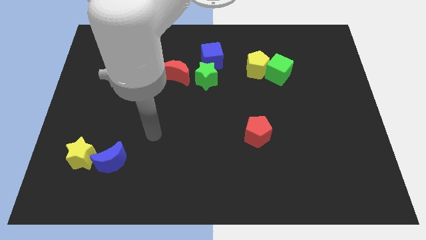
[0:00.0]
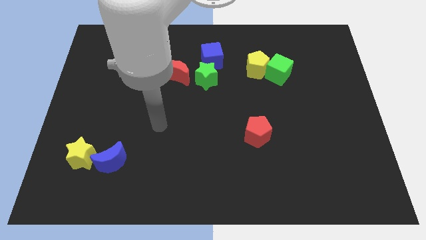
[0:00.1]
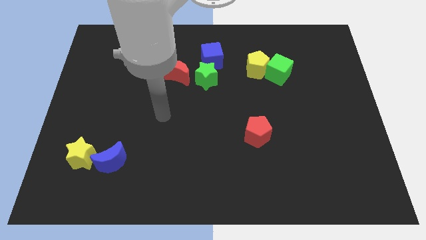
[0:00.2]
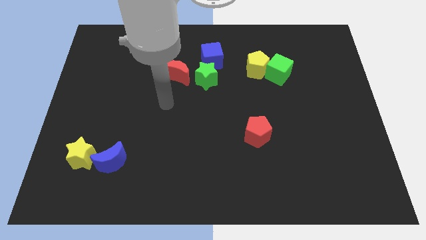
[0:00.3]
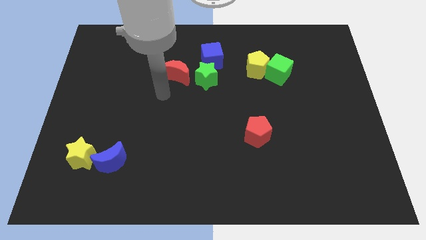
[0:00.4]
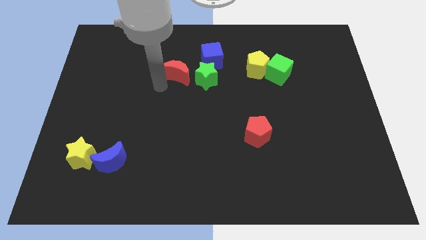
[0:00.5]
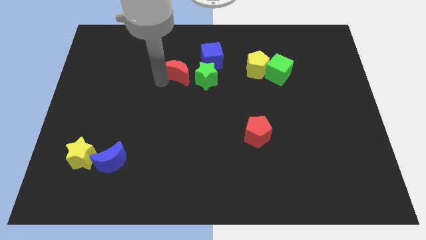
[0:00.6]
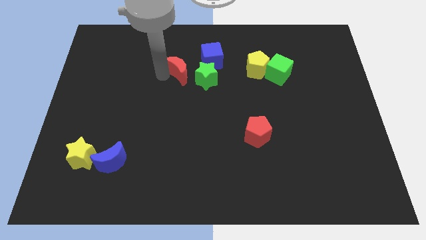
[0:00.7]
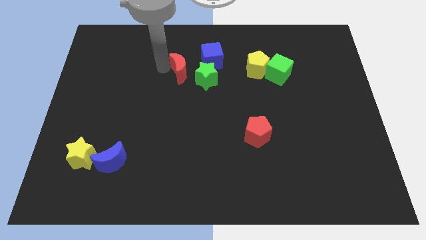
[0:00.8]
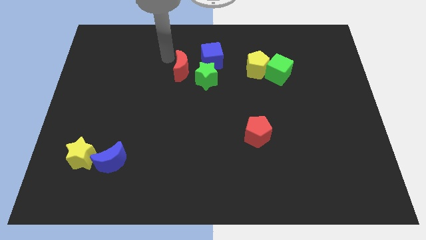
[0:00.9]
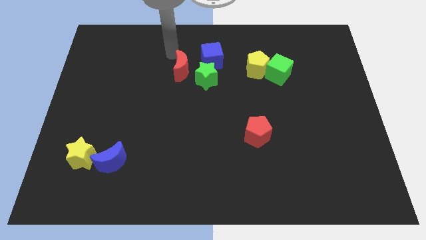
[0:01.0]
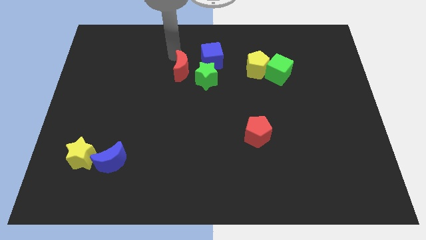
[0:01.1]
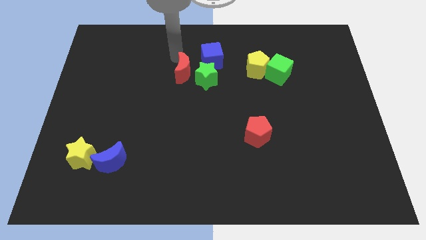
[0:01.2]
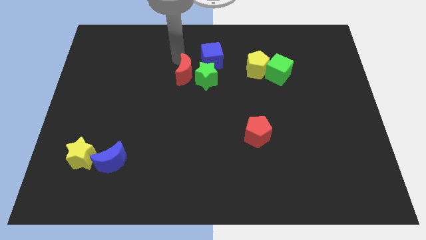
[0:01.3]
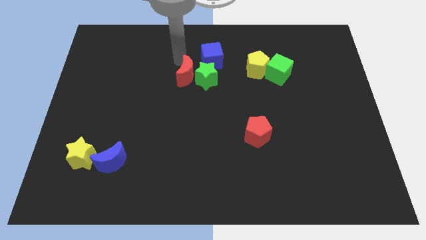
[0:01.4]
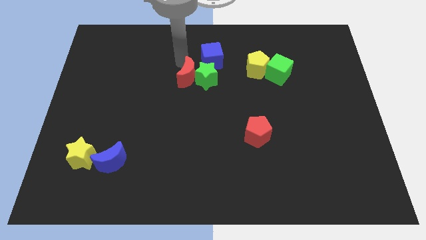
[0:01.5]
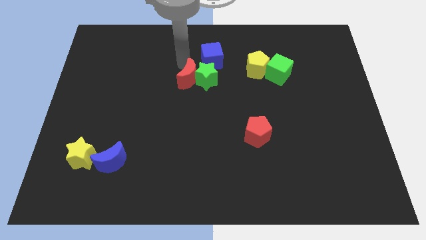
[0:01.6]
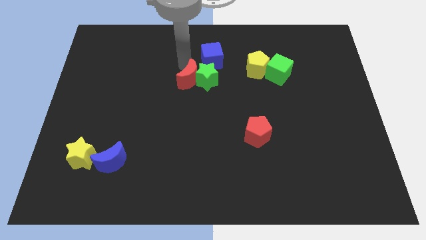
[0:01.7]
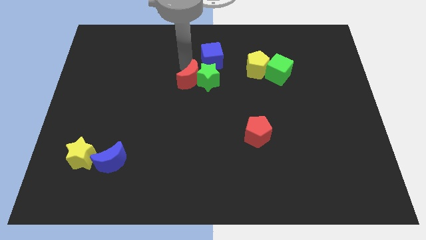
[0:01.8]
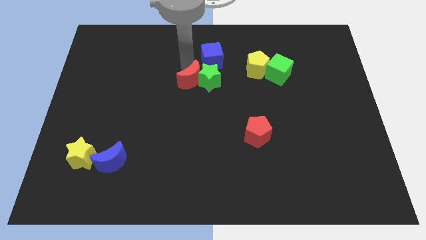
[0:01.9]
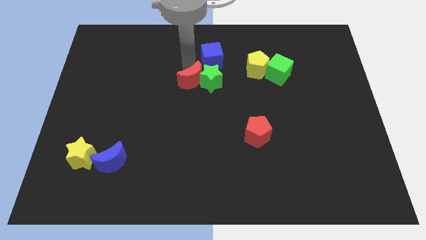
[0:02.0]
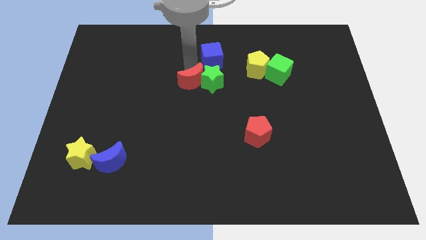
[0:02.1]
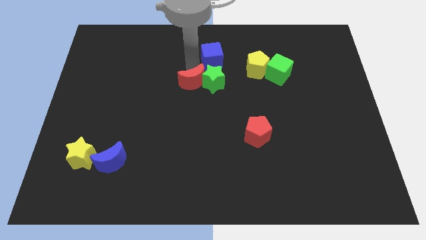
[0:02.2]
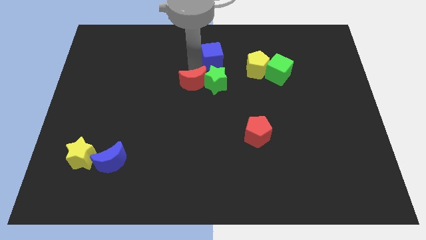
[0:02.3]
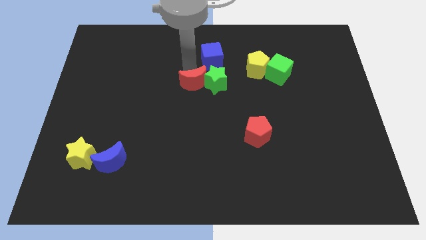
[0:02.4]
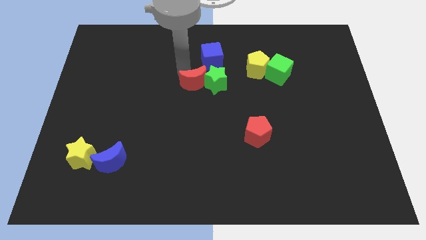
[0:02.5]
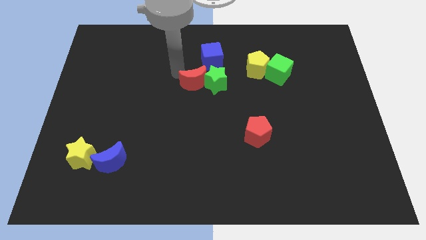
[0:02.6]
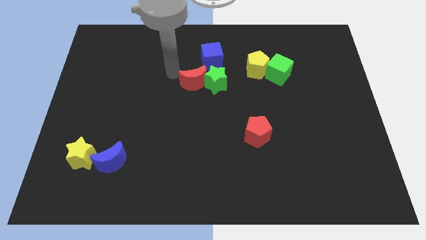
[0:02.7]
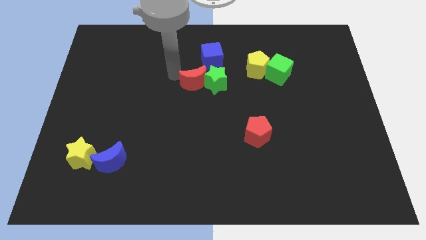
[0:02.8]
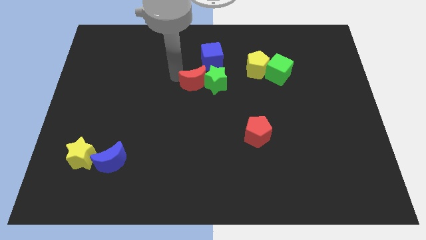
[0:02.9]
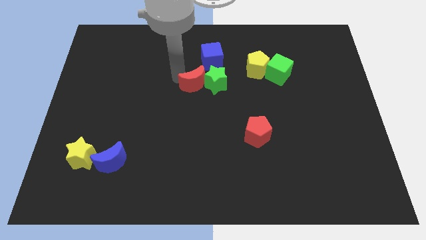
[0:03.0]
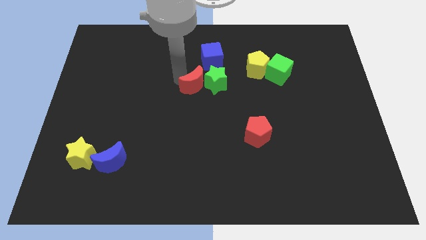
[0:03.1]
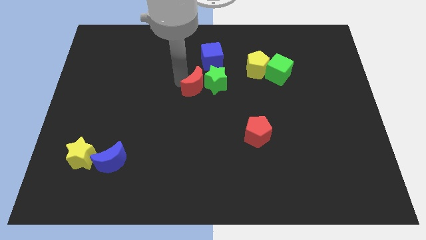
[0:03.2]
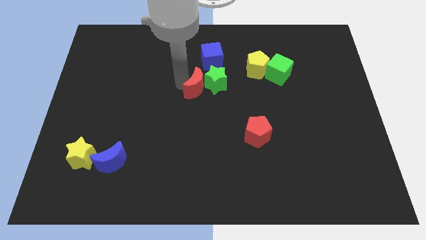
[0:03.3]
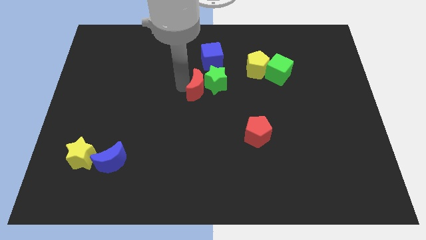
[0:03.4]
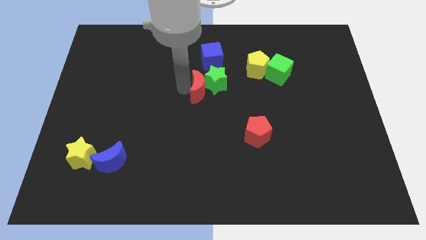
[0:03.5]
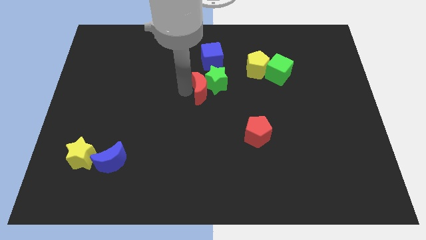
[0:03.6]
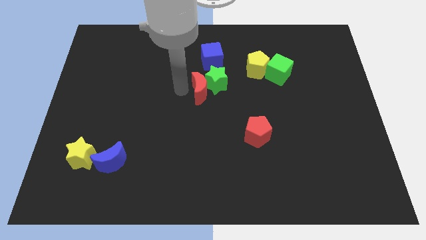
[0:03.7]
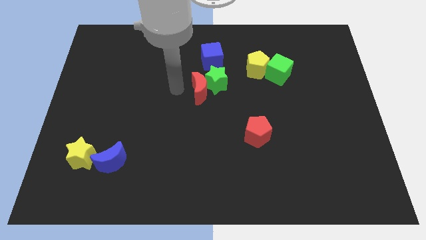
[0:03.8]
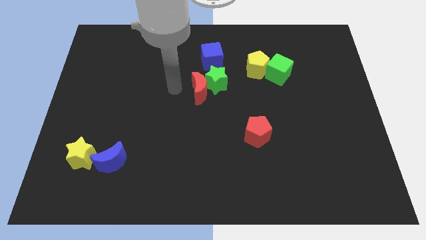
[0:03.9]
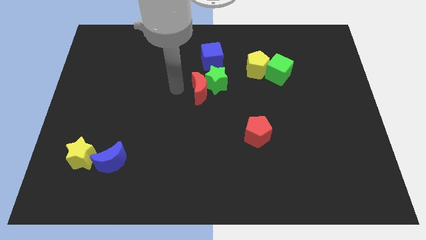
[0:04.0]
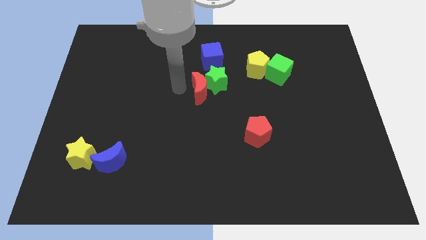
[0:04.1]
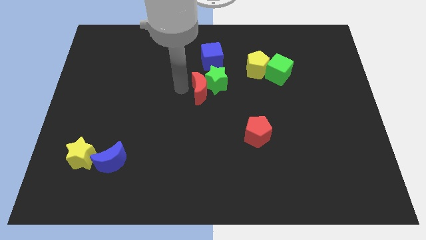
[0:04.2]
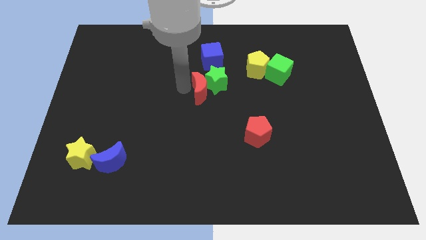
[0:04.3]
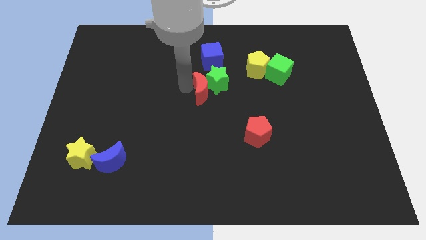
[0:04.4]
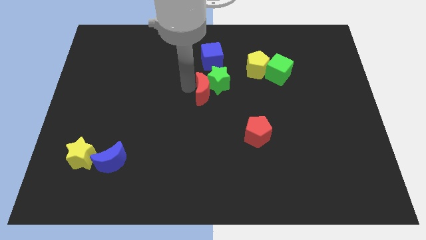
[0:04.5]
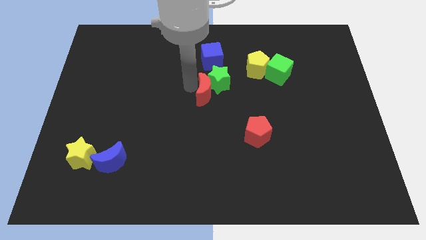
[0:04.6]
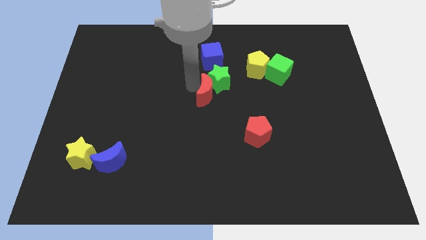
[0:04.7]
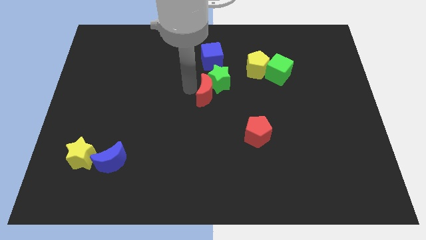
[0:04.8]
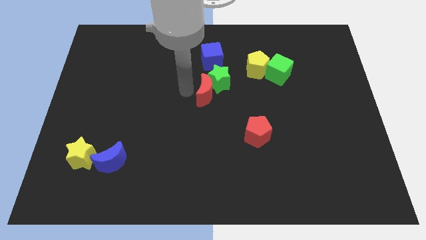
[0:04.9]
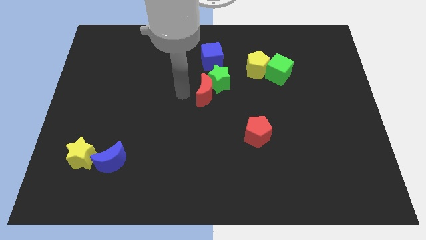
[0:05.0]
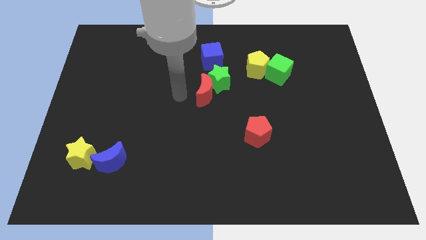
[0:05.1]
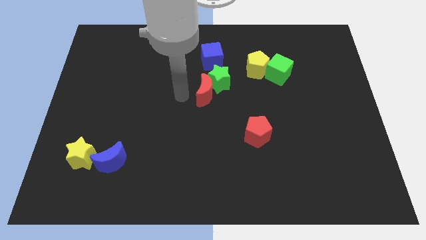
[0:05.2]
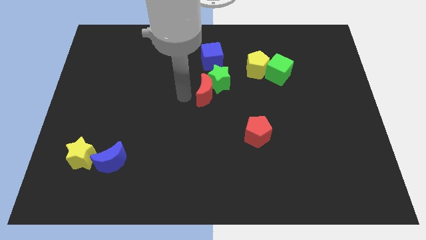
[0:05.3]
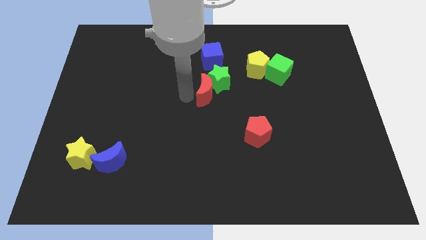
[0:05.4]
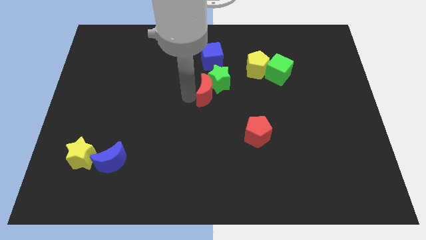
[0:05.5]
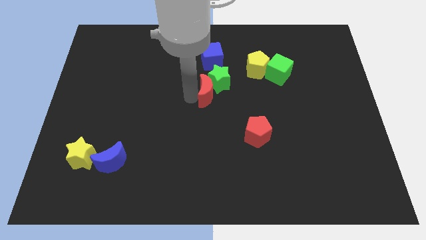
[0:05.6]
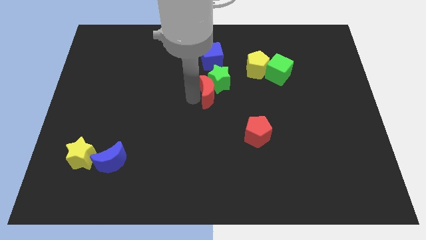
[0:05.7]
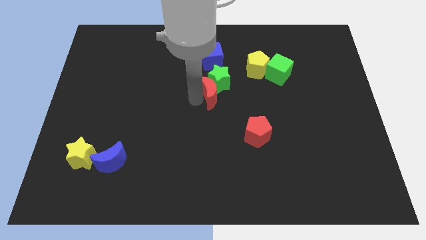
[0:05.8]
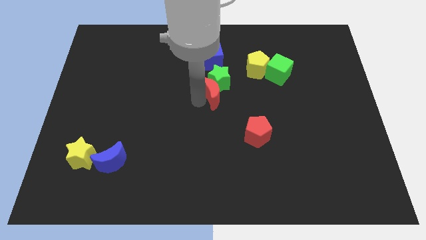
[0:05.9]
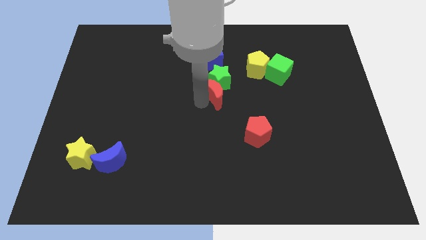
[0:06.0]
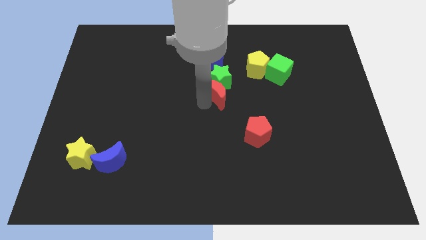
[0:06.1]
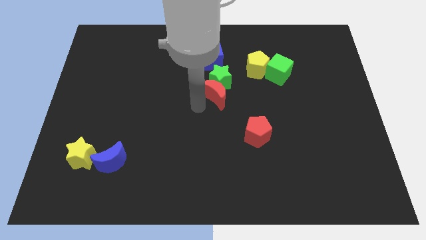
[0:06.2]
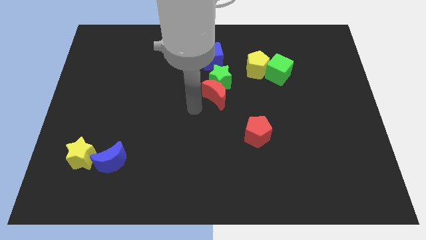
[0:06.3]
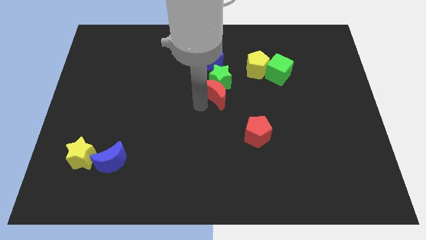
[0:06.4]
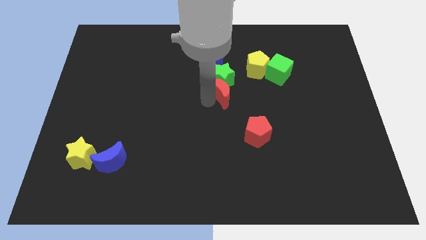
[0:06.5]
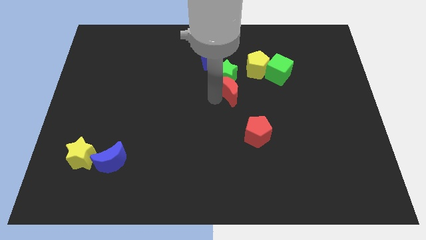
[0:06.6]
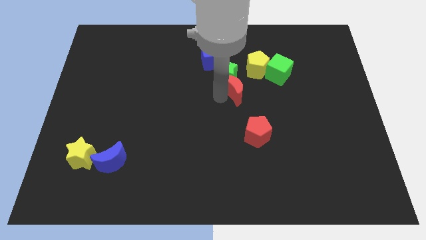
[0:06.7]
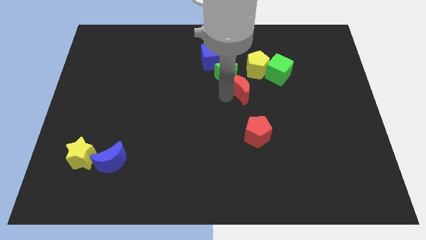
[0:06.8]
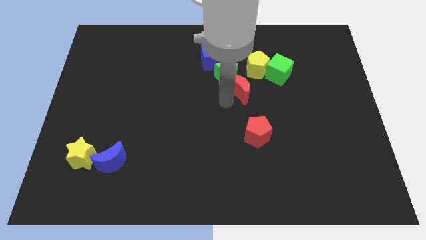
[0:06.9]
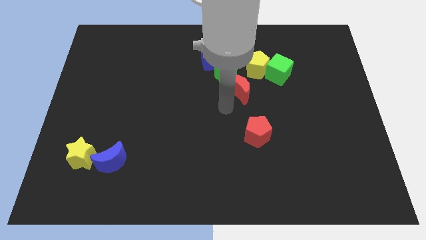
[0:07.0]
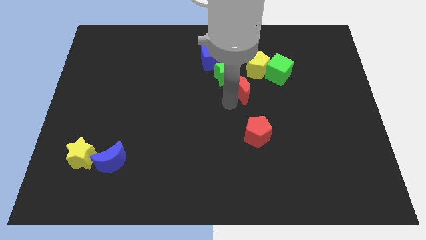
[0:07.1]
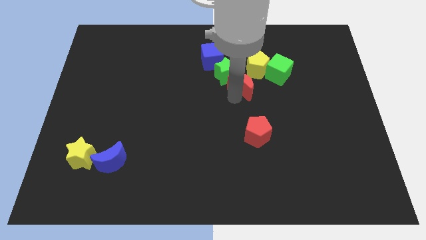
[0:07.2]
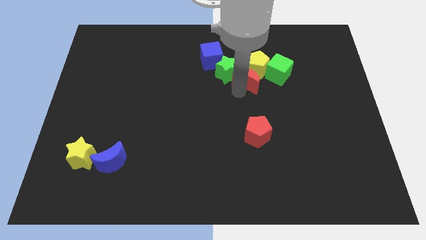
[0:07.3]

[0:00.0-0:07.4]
slide the red moon close to the yellow pentagon

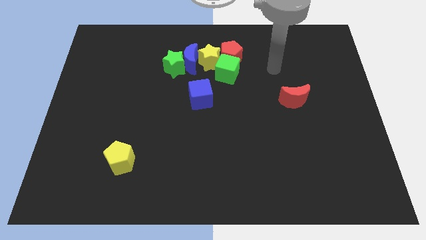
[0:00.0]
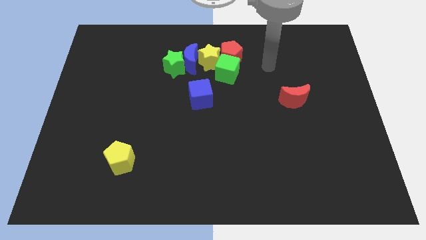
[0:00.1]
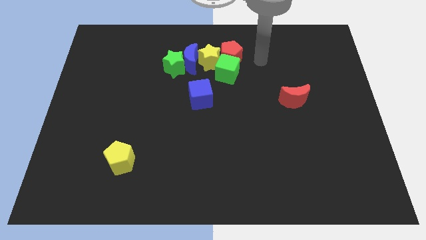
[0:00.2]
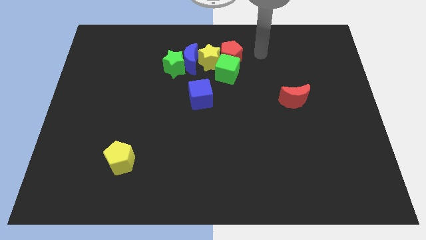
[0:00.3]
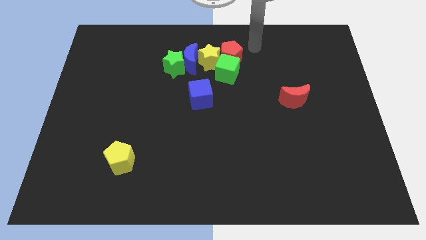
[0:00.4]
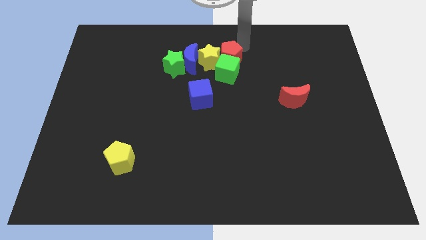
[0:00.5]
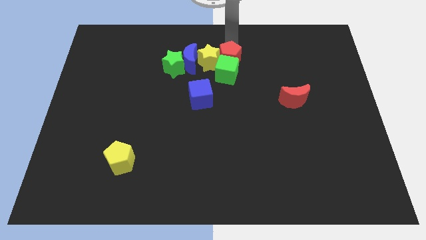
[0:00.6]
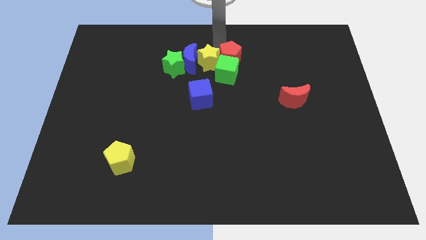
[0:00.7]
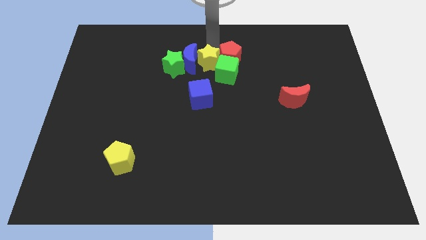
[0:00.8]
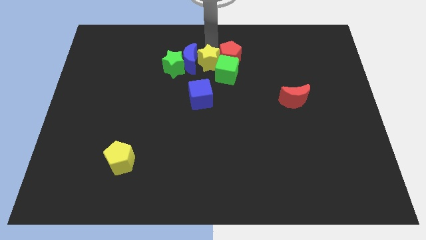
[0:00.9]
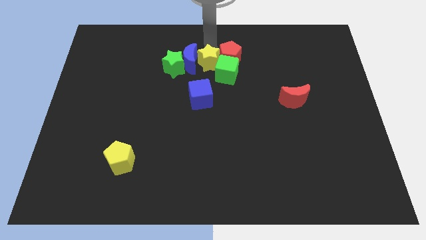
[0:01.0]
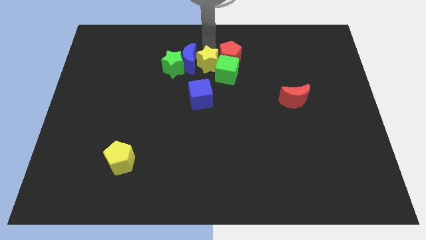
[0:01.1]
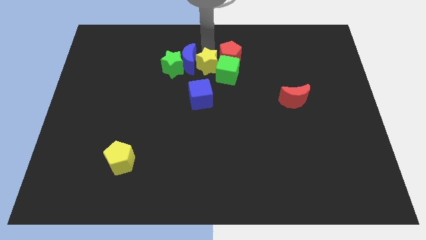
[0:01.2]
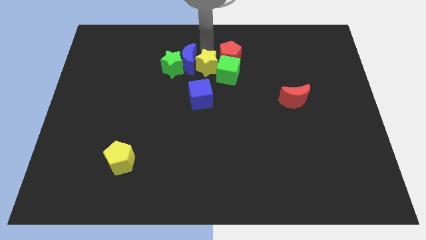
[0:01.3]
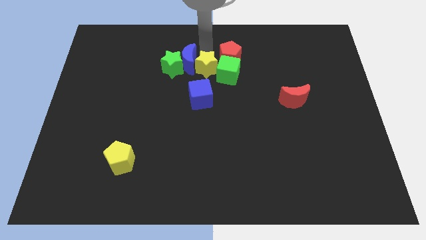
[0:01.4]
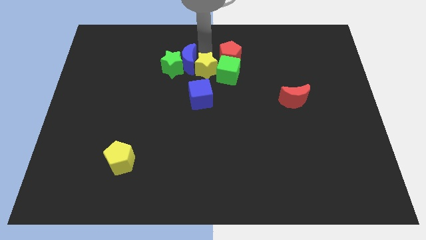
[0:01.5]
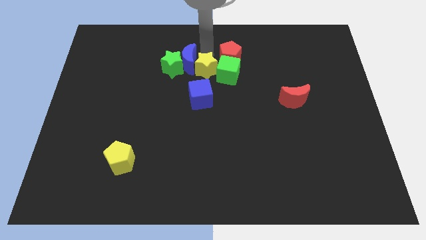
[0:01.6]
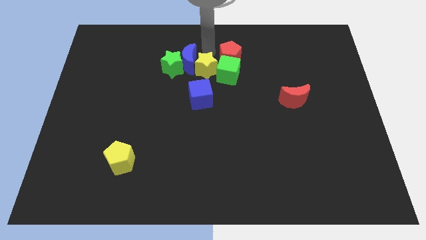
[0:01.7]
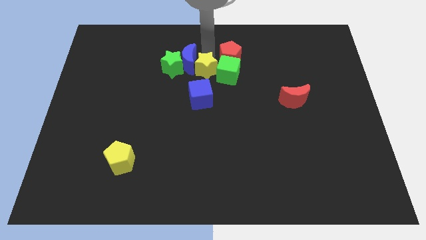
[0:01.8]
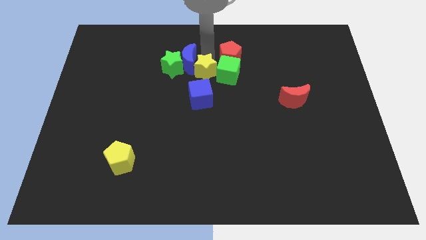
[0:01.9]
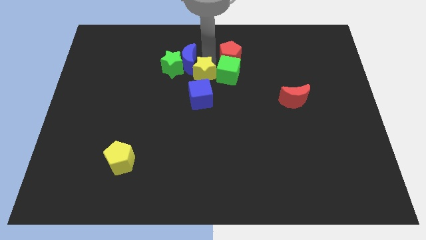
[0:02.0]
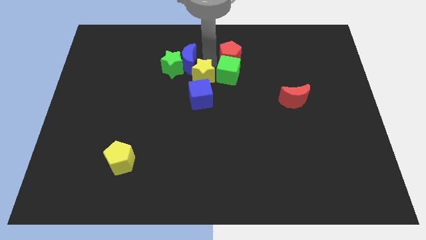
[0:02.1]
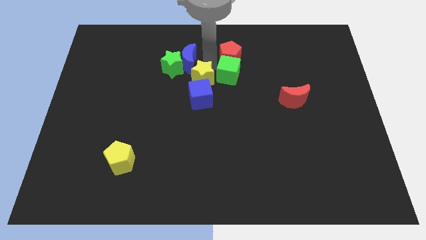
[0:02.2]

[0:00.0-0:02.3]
put the yellow star to the blue cube
